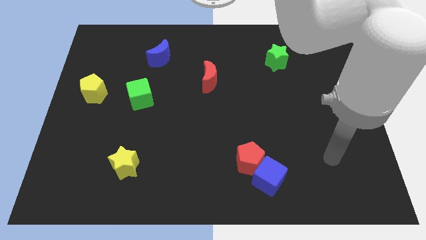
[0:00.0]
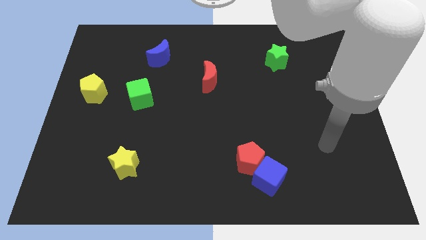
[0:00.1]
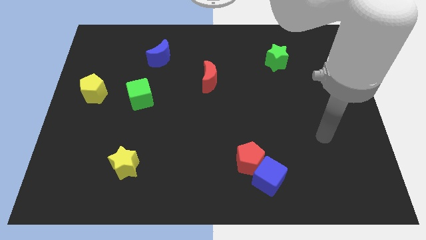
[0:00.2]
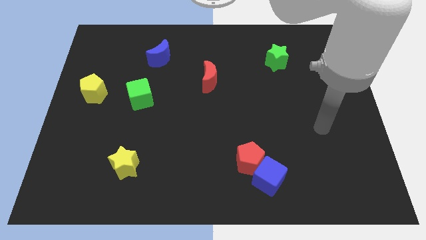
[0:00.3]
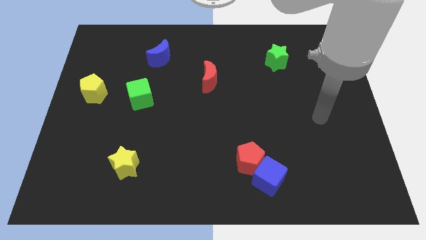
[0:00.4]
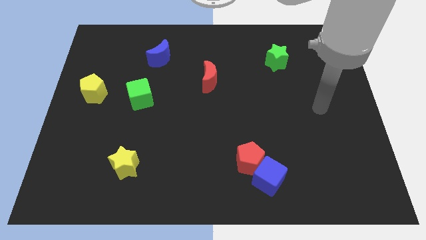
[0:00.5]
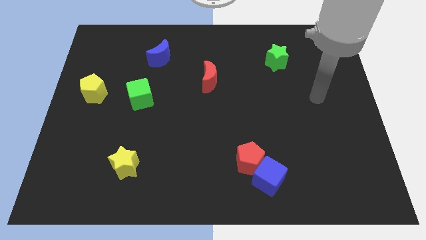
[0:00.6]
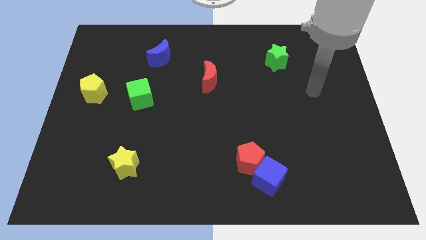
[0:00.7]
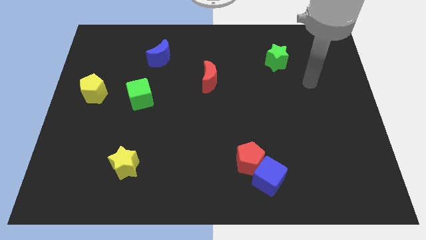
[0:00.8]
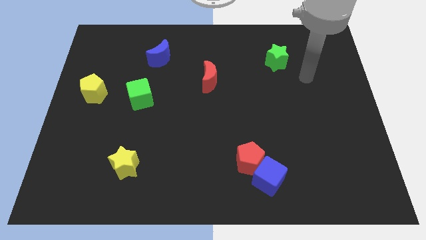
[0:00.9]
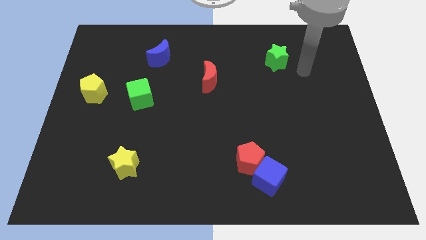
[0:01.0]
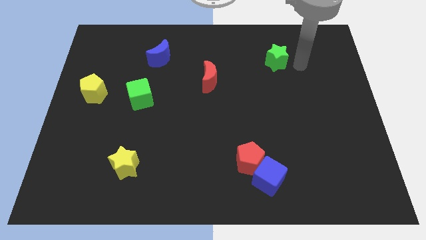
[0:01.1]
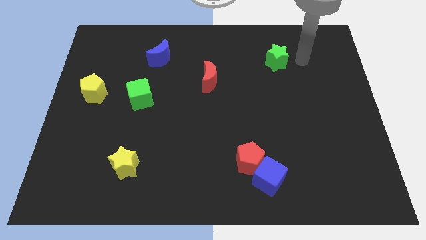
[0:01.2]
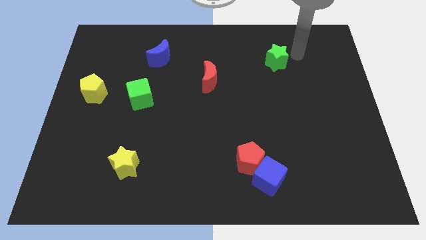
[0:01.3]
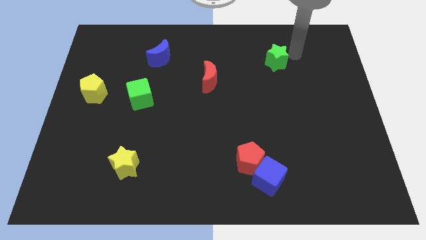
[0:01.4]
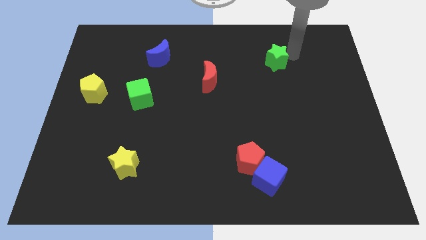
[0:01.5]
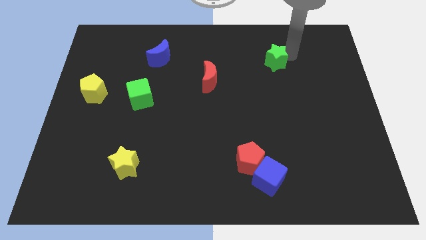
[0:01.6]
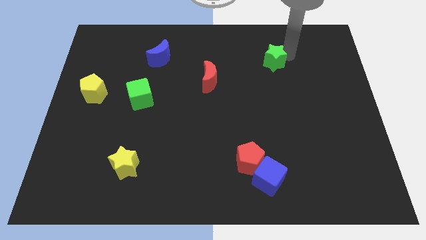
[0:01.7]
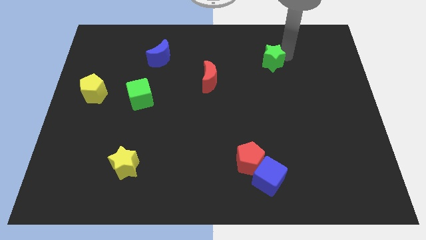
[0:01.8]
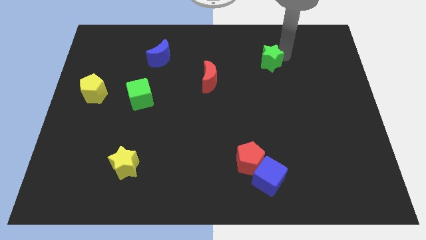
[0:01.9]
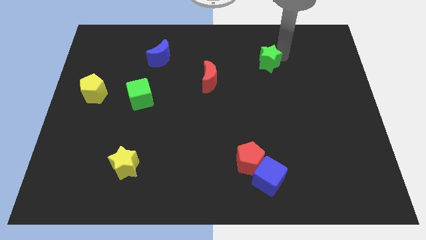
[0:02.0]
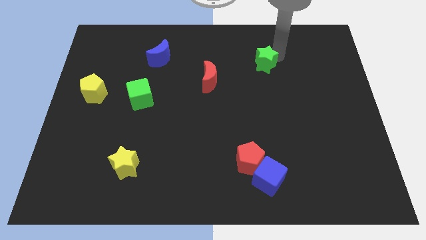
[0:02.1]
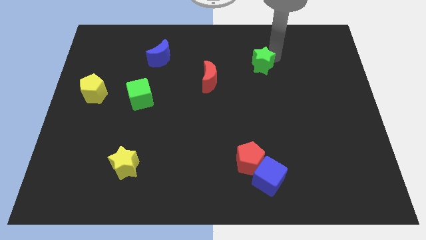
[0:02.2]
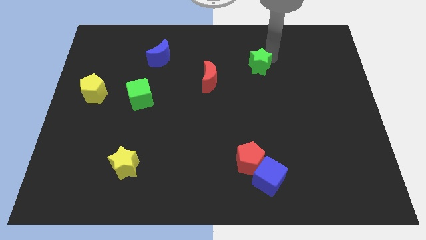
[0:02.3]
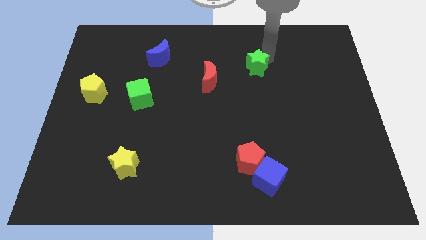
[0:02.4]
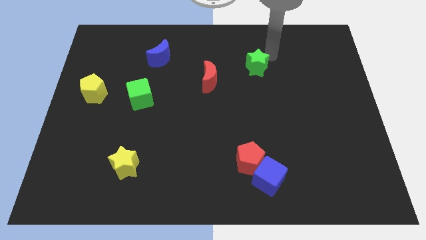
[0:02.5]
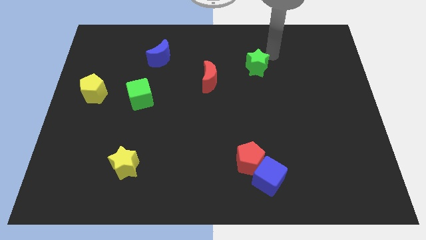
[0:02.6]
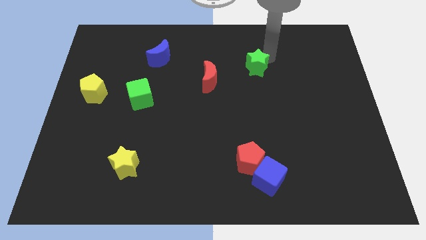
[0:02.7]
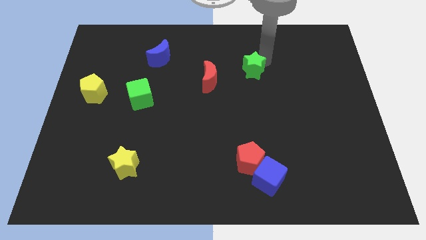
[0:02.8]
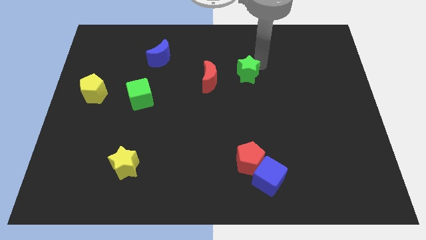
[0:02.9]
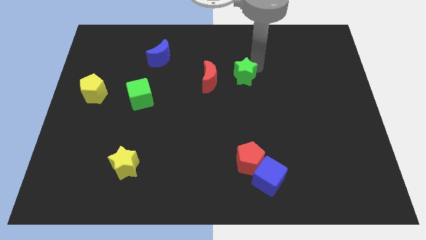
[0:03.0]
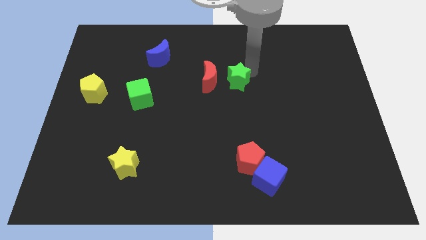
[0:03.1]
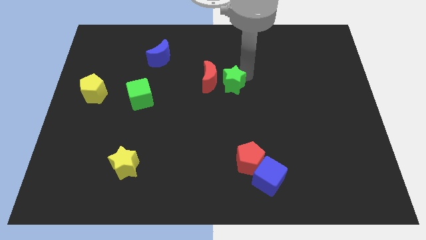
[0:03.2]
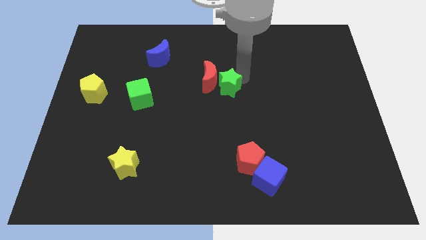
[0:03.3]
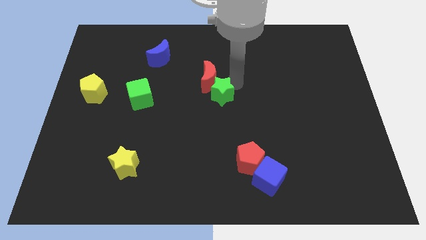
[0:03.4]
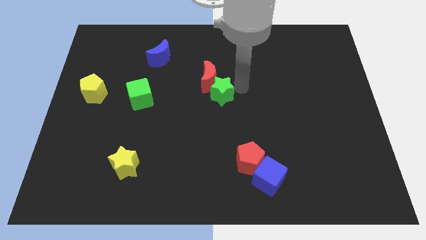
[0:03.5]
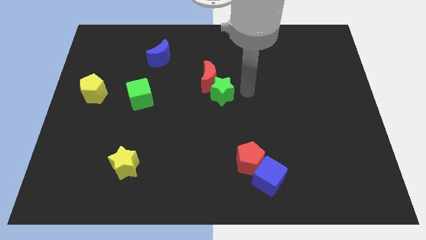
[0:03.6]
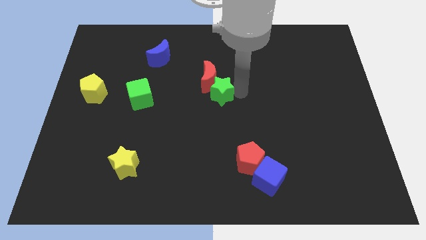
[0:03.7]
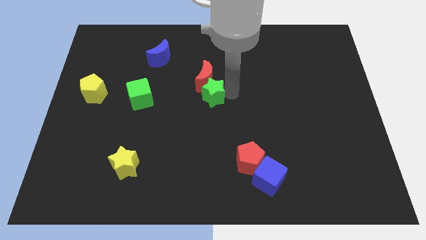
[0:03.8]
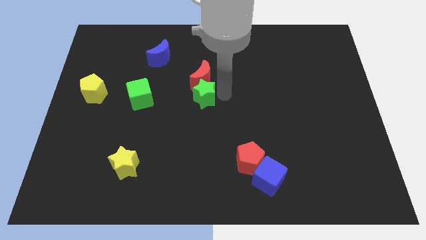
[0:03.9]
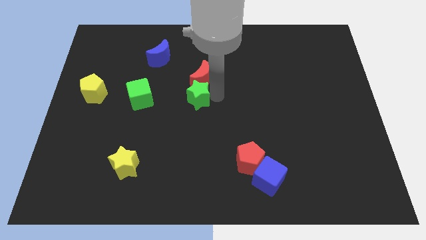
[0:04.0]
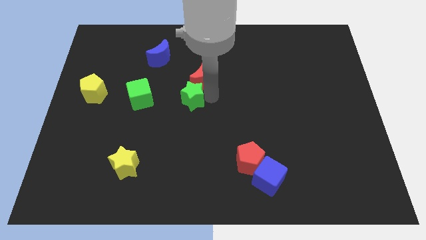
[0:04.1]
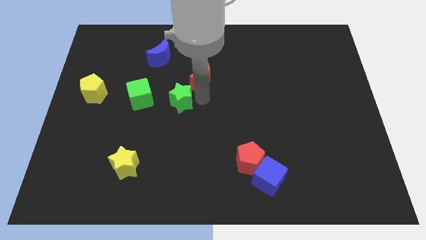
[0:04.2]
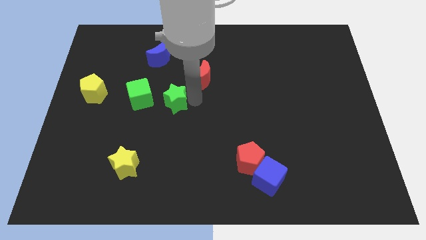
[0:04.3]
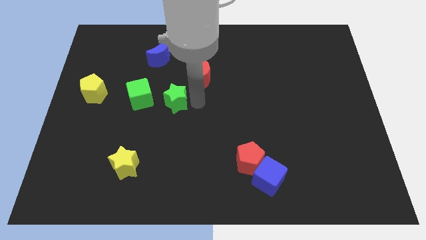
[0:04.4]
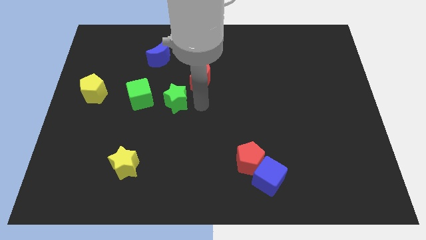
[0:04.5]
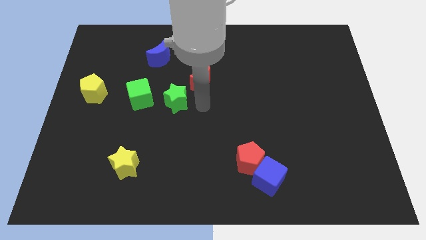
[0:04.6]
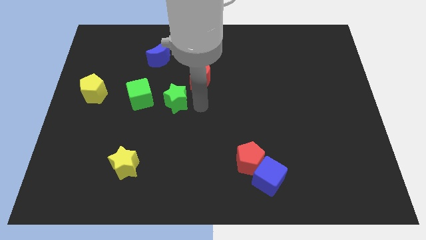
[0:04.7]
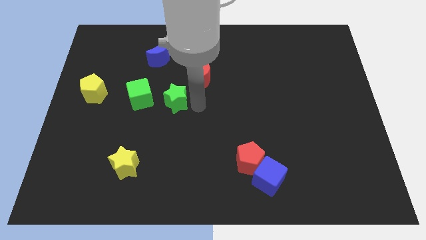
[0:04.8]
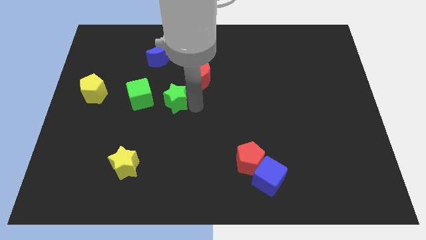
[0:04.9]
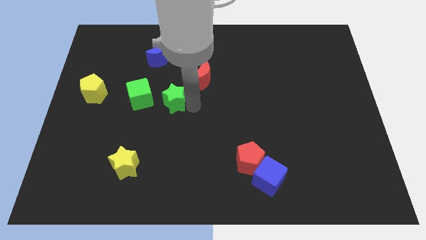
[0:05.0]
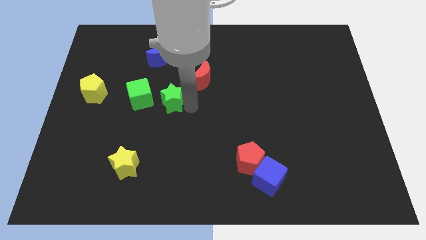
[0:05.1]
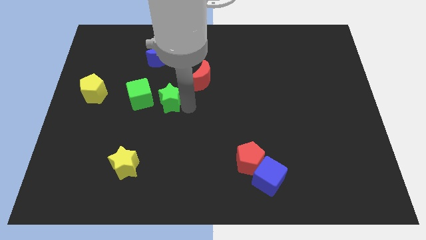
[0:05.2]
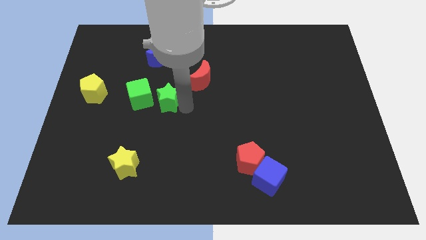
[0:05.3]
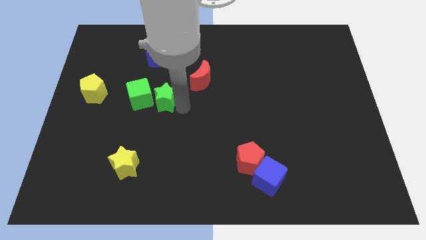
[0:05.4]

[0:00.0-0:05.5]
put the green star to the green cube

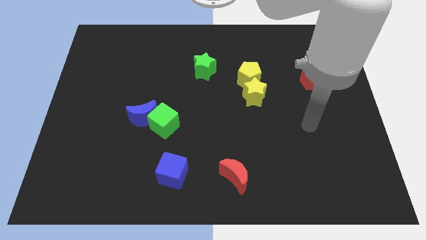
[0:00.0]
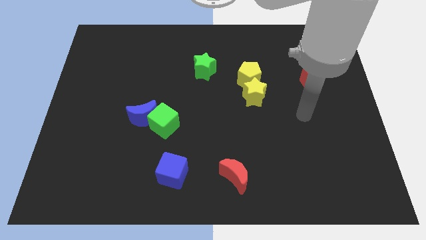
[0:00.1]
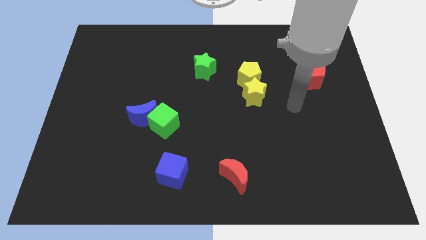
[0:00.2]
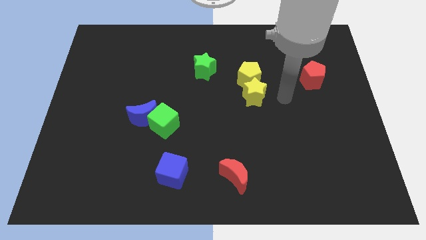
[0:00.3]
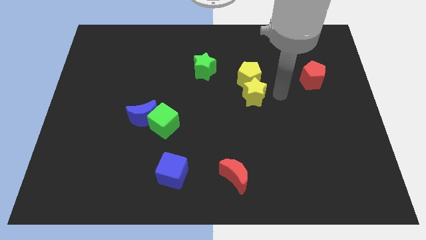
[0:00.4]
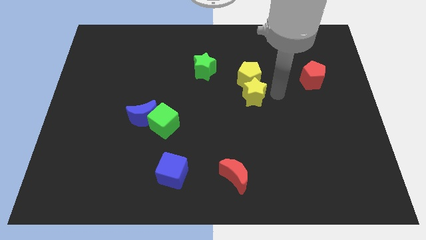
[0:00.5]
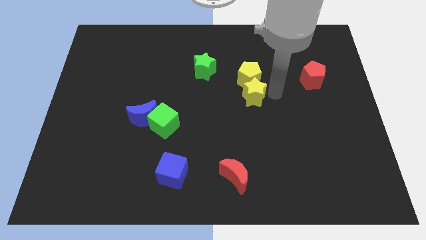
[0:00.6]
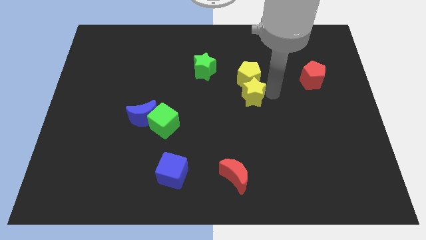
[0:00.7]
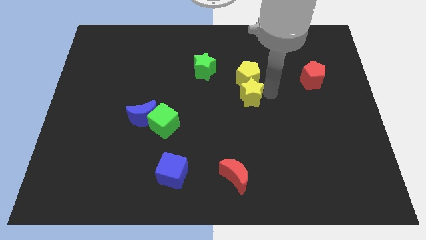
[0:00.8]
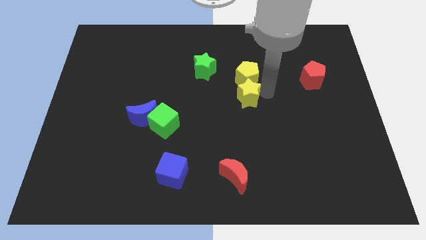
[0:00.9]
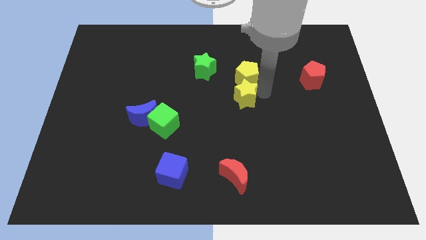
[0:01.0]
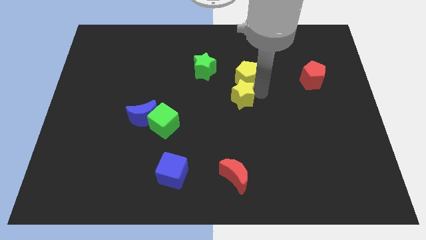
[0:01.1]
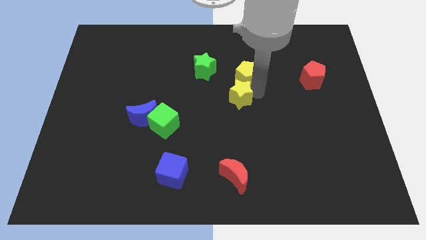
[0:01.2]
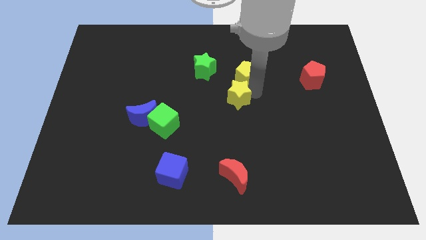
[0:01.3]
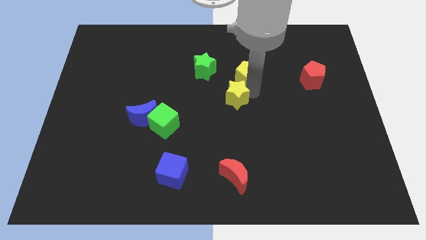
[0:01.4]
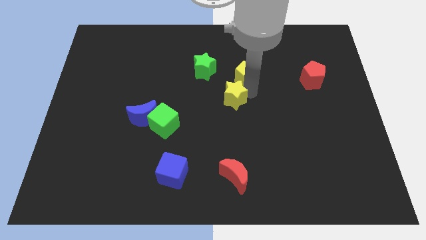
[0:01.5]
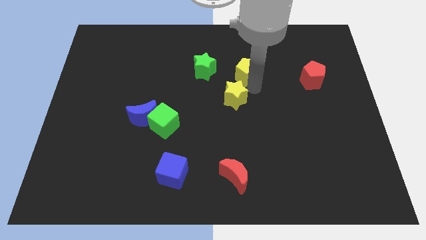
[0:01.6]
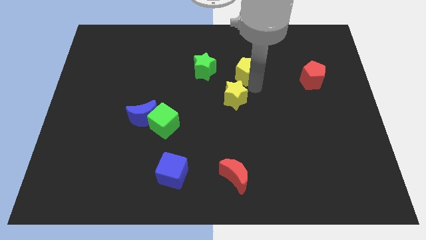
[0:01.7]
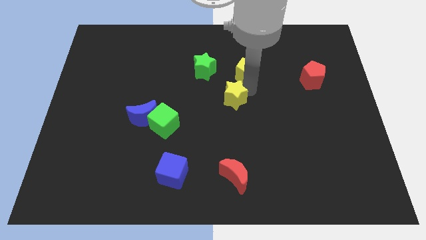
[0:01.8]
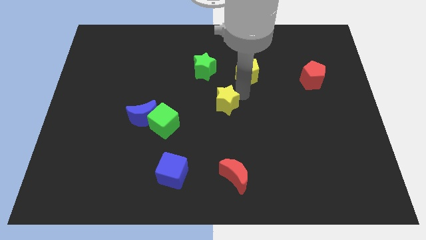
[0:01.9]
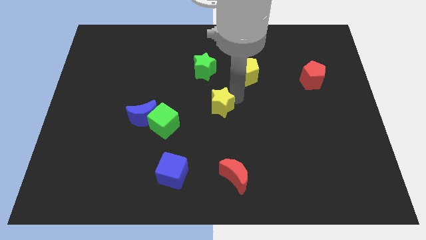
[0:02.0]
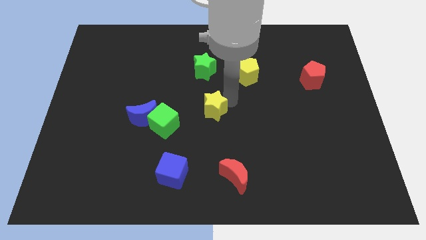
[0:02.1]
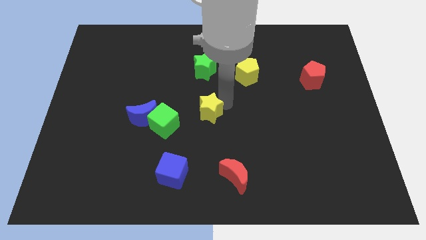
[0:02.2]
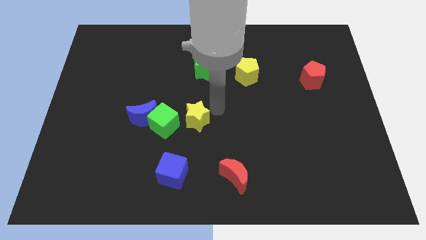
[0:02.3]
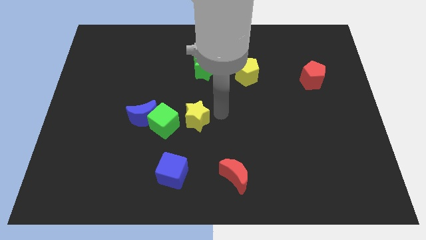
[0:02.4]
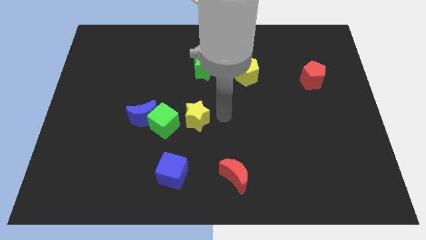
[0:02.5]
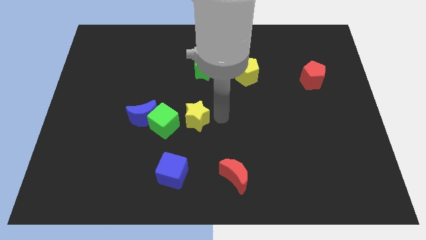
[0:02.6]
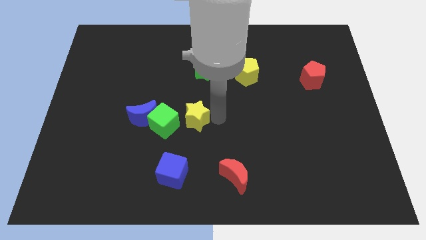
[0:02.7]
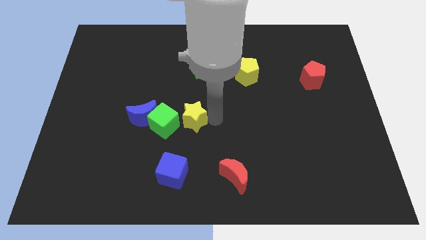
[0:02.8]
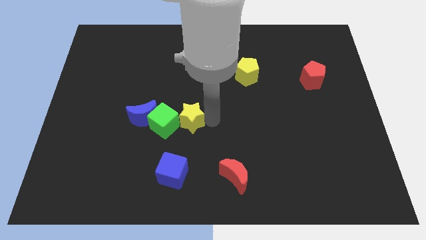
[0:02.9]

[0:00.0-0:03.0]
push the yellow star next to the green cube
